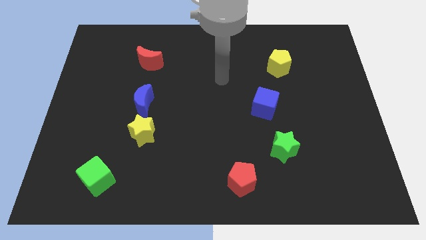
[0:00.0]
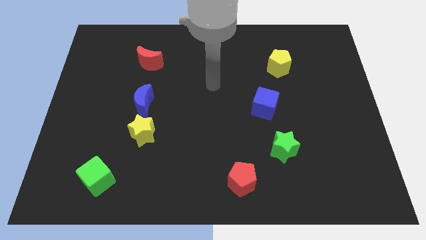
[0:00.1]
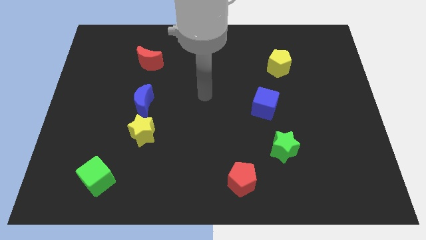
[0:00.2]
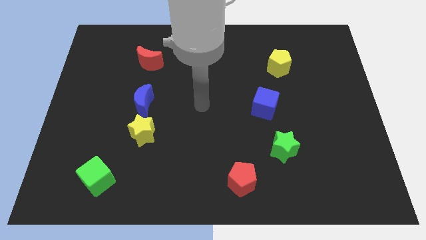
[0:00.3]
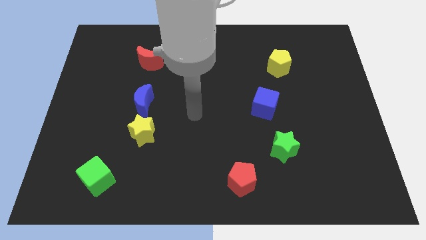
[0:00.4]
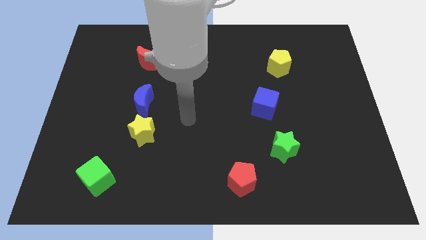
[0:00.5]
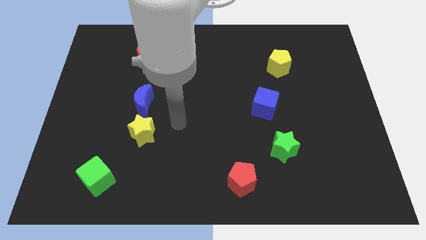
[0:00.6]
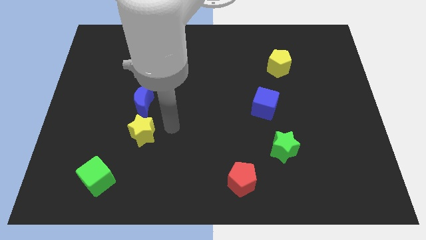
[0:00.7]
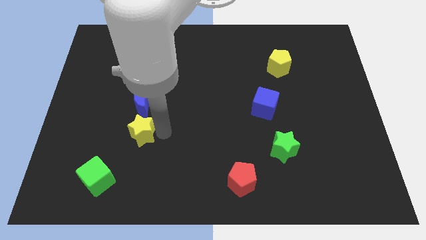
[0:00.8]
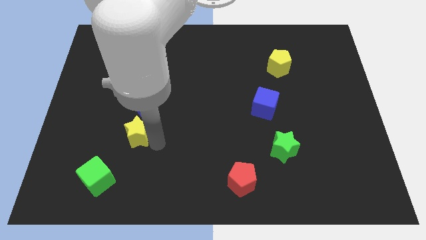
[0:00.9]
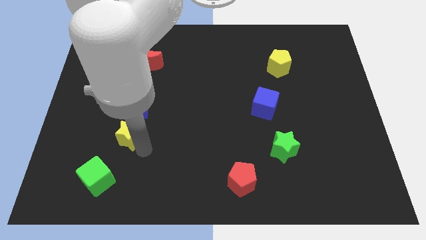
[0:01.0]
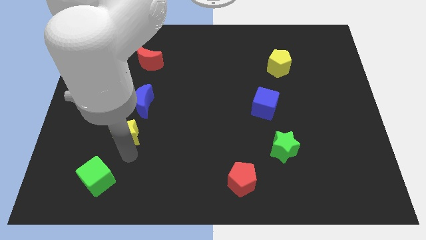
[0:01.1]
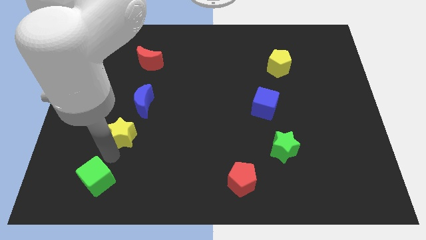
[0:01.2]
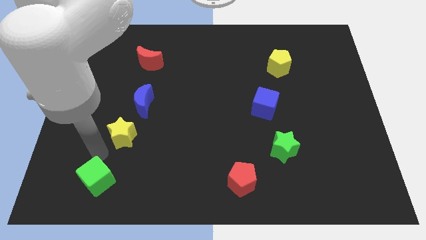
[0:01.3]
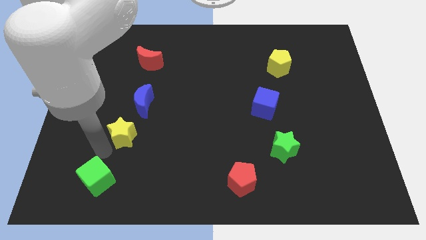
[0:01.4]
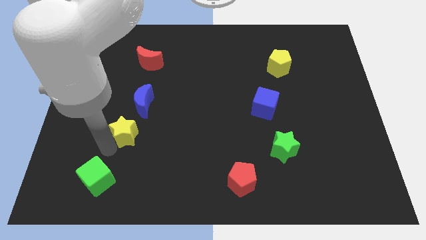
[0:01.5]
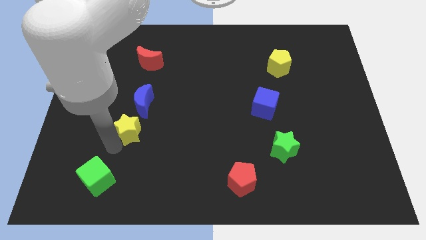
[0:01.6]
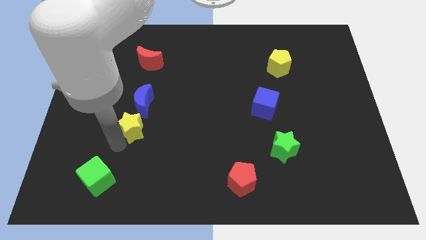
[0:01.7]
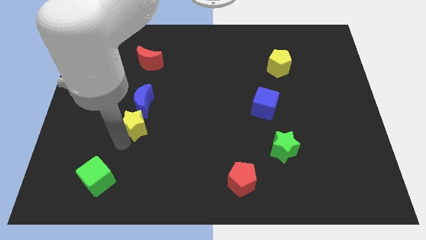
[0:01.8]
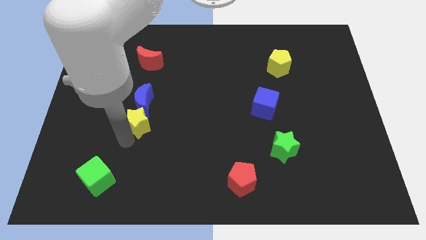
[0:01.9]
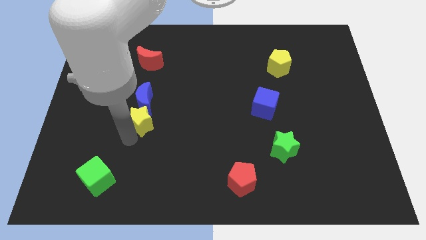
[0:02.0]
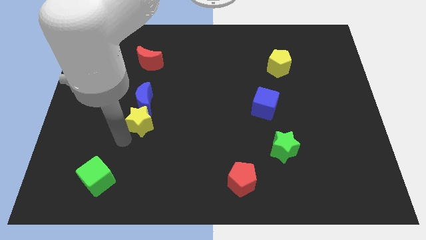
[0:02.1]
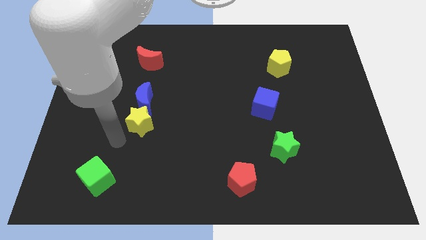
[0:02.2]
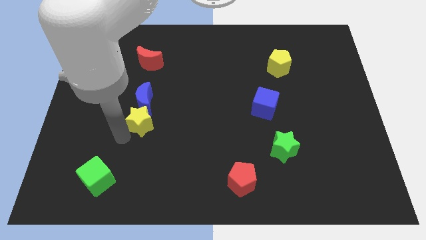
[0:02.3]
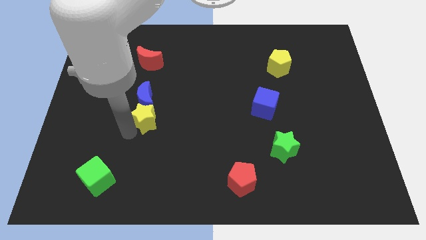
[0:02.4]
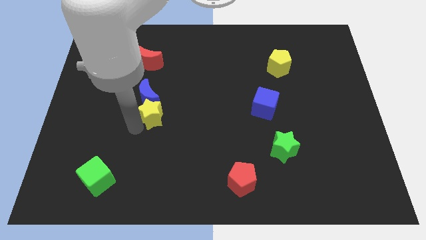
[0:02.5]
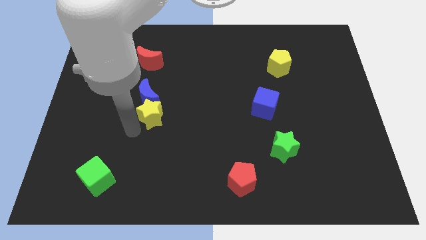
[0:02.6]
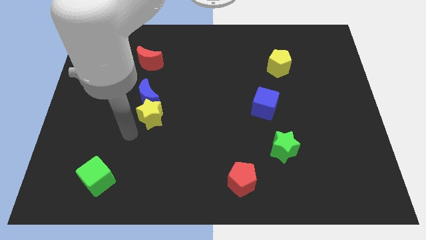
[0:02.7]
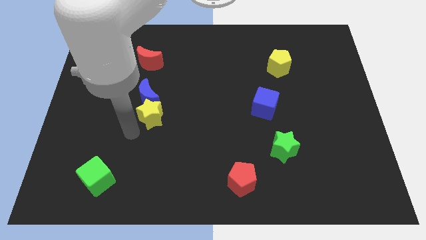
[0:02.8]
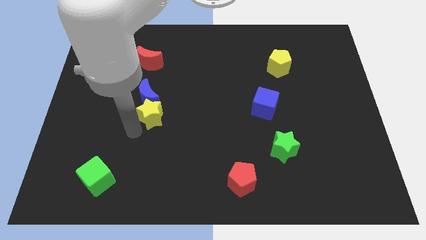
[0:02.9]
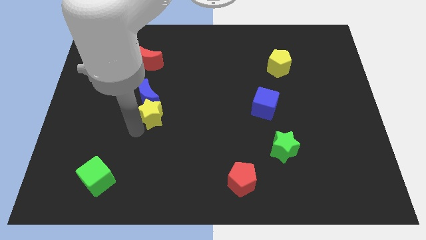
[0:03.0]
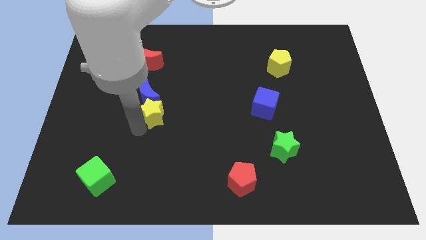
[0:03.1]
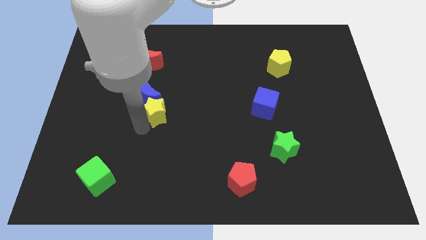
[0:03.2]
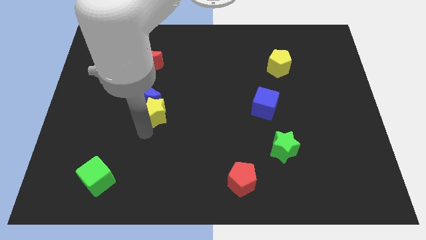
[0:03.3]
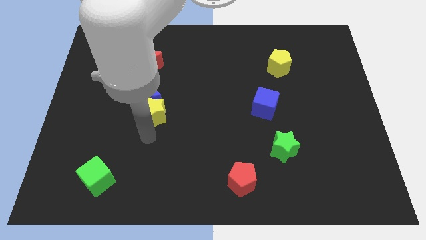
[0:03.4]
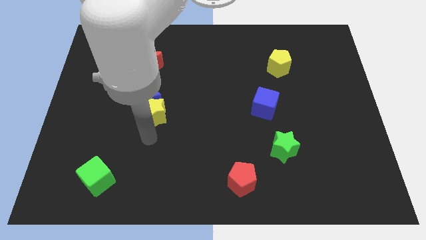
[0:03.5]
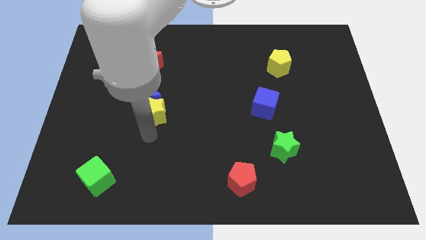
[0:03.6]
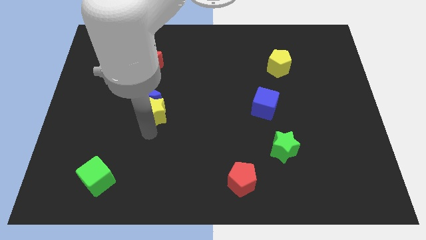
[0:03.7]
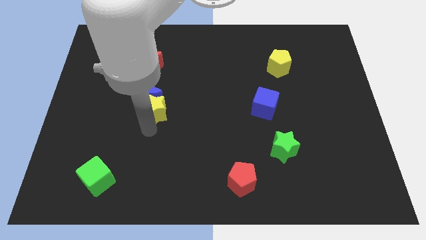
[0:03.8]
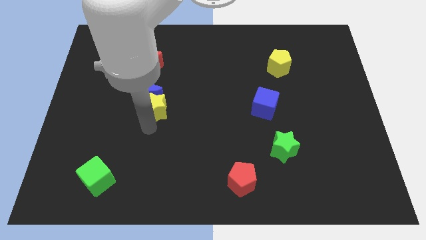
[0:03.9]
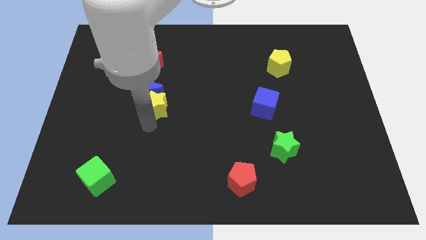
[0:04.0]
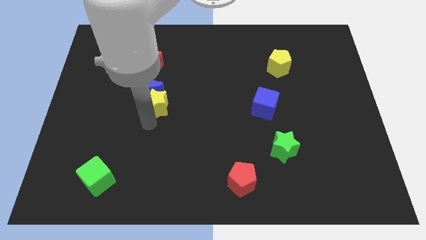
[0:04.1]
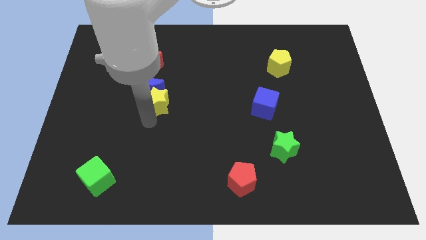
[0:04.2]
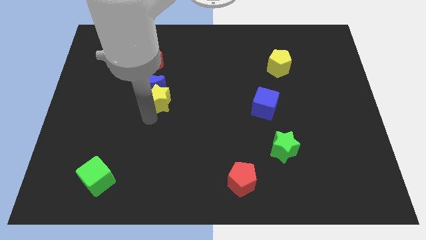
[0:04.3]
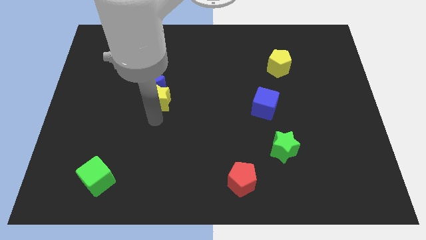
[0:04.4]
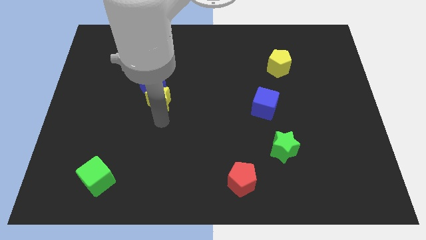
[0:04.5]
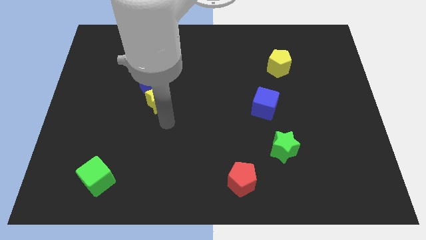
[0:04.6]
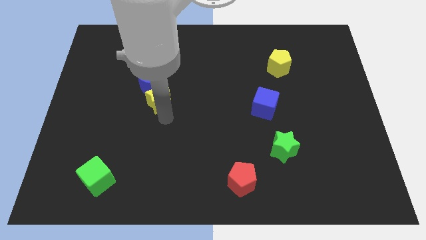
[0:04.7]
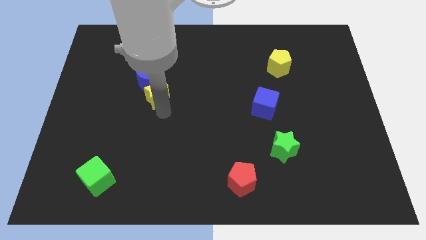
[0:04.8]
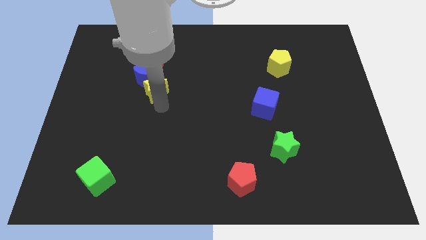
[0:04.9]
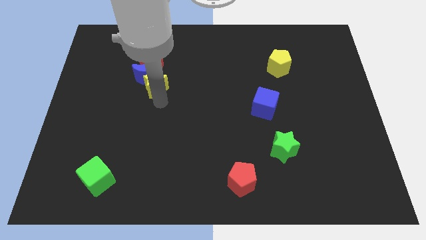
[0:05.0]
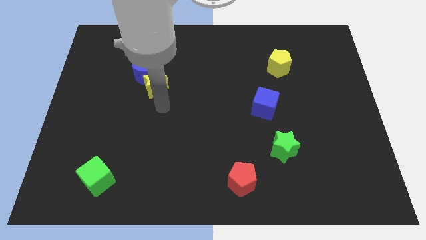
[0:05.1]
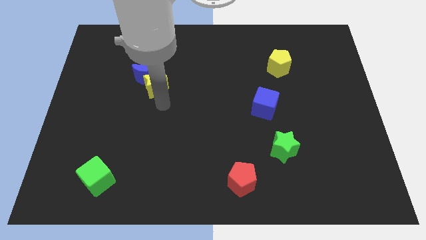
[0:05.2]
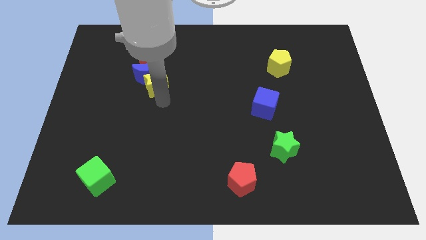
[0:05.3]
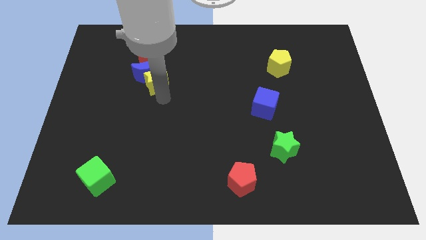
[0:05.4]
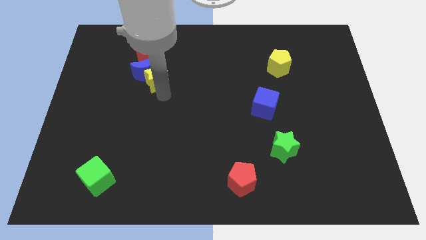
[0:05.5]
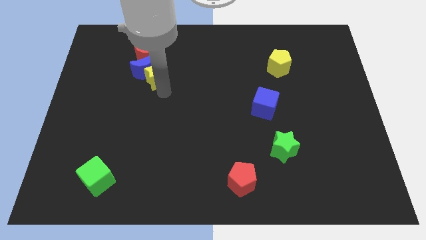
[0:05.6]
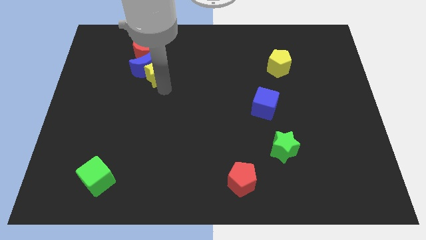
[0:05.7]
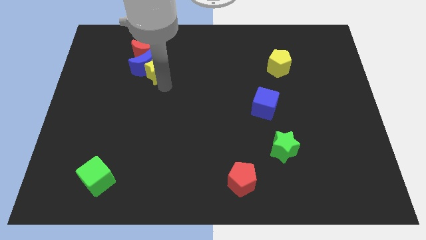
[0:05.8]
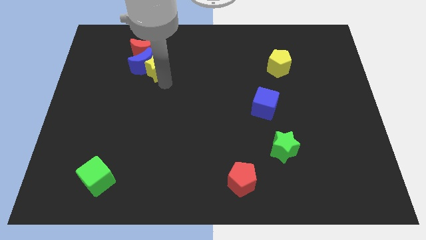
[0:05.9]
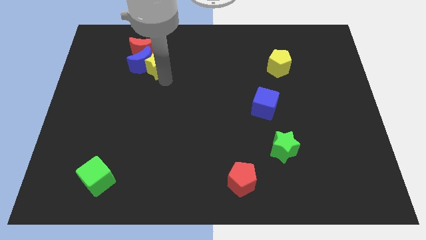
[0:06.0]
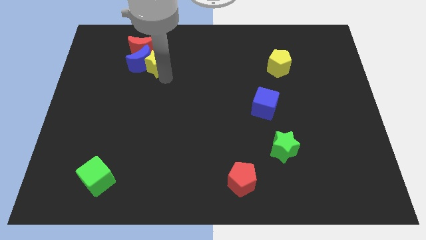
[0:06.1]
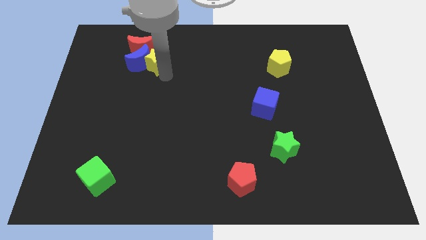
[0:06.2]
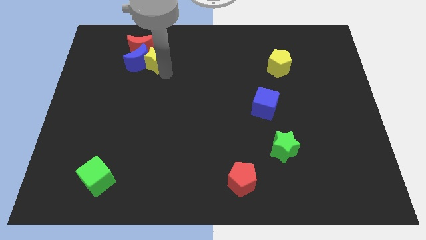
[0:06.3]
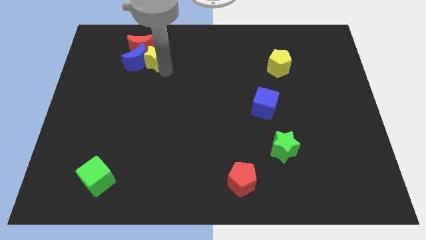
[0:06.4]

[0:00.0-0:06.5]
slide the yellow star next to the red moon

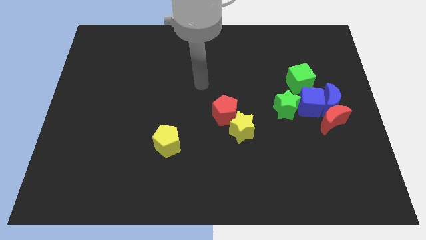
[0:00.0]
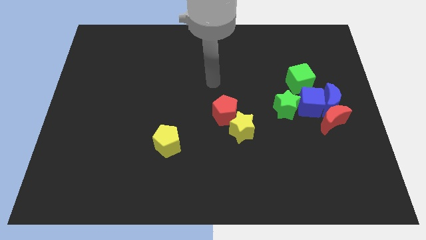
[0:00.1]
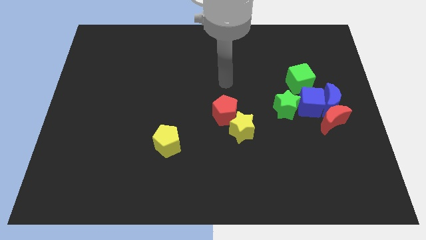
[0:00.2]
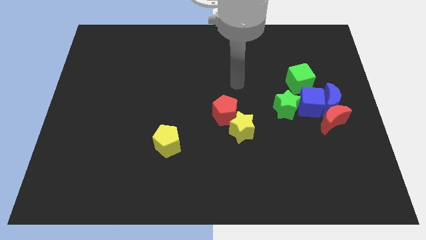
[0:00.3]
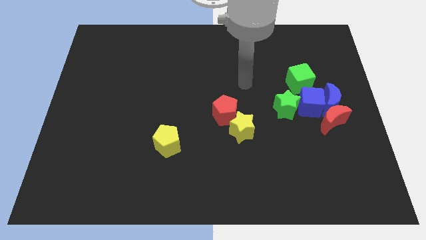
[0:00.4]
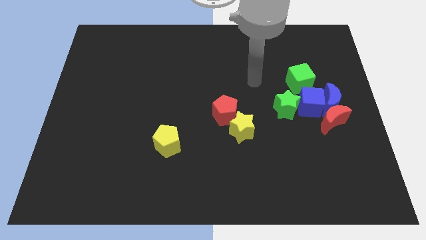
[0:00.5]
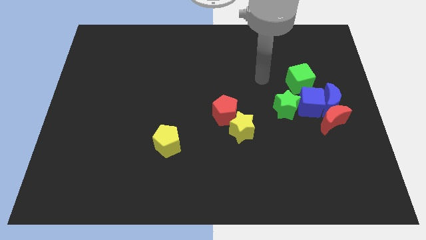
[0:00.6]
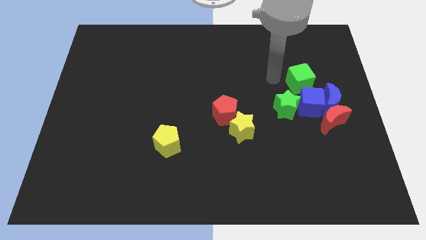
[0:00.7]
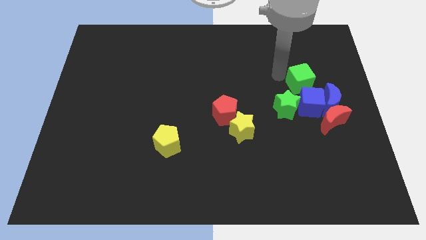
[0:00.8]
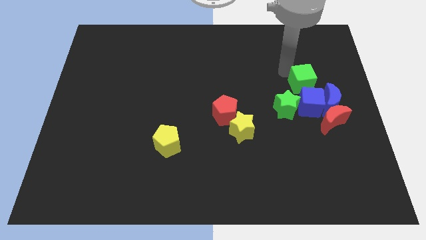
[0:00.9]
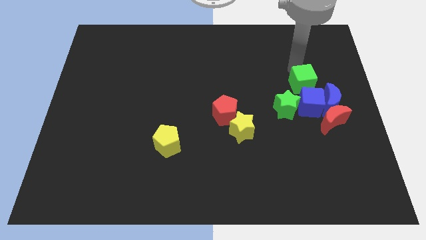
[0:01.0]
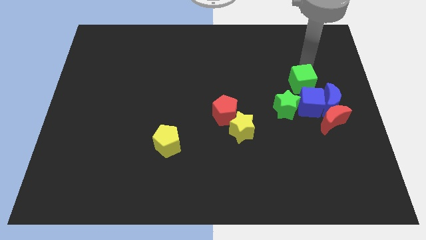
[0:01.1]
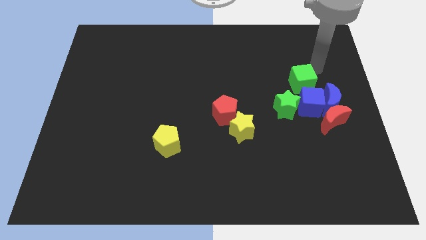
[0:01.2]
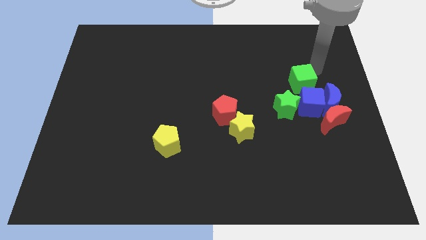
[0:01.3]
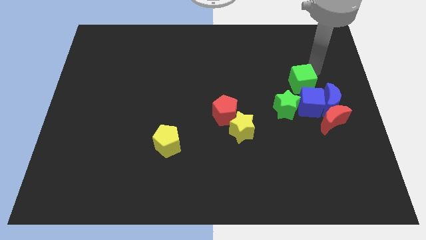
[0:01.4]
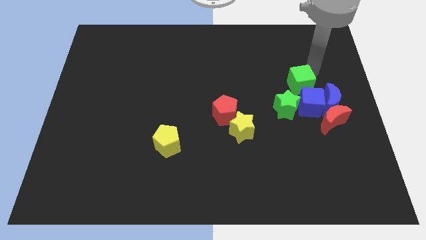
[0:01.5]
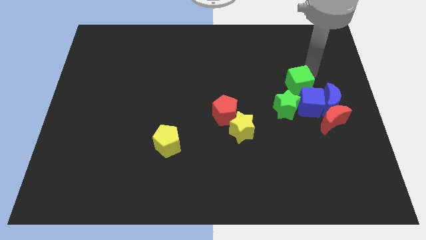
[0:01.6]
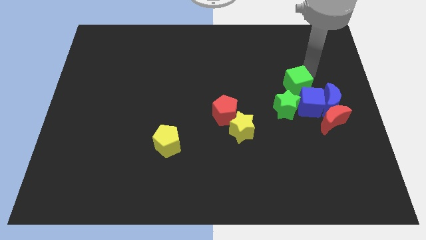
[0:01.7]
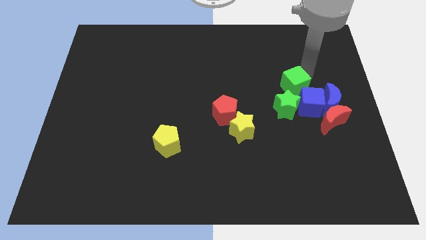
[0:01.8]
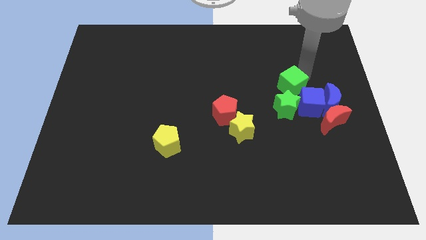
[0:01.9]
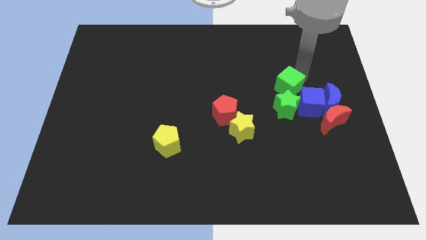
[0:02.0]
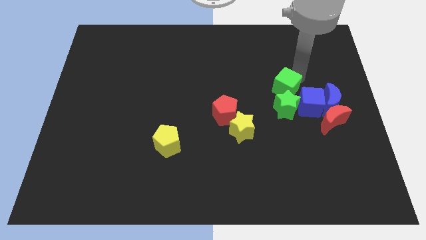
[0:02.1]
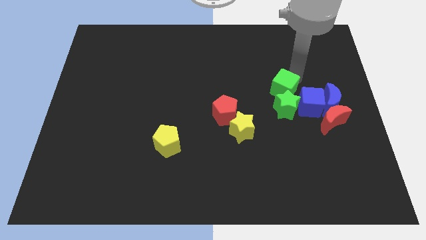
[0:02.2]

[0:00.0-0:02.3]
put the green cube next to the green star
